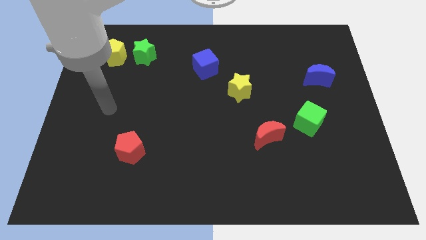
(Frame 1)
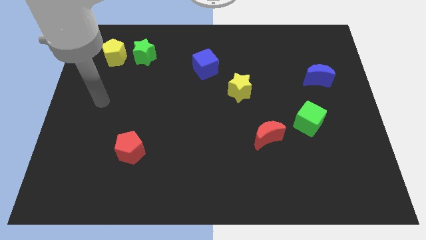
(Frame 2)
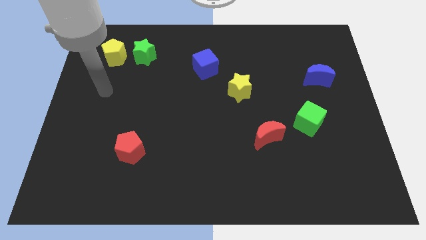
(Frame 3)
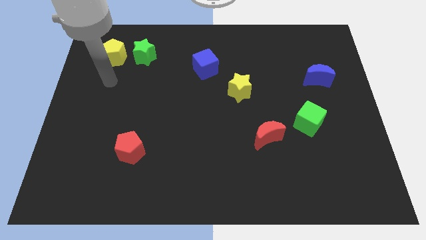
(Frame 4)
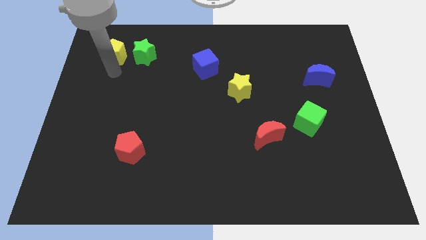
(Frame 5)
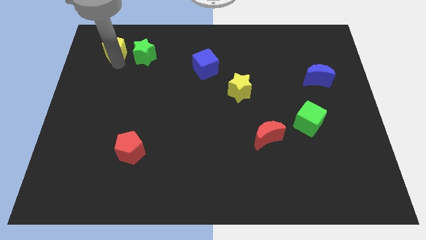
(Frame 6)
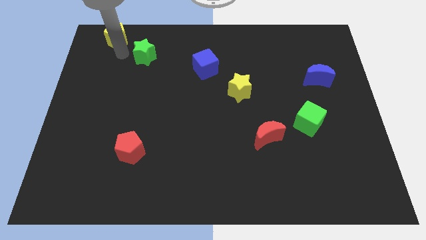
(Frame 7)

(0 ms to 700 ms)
pull the green star apart from the yellow pentagon

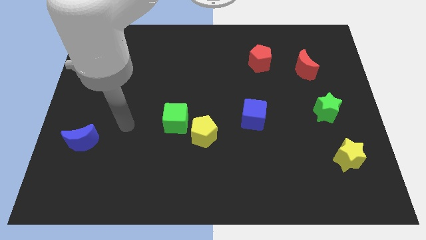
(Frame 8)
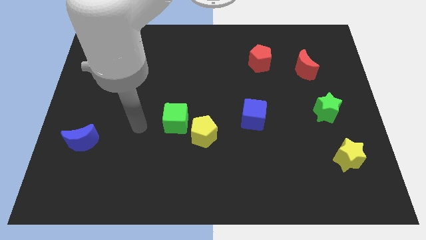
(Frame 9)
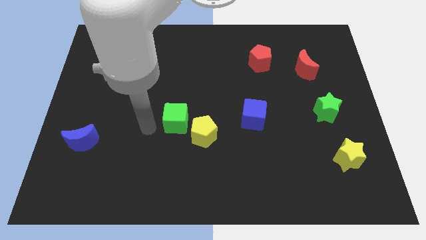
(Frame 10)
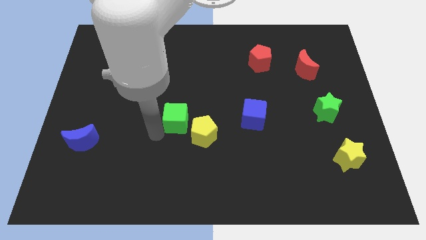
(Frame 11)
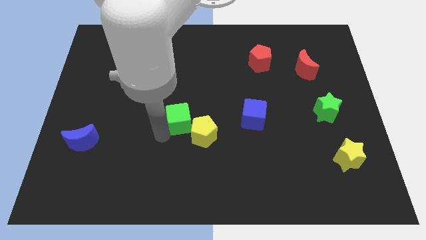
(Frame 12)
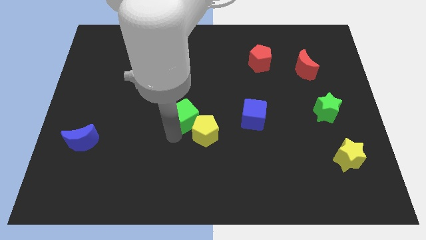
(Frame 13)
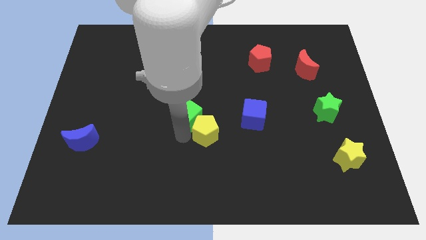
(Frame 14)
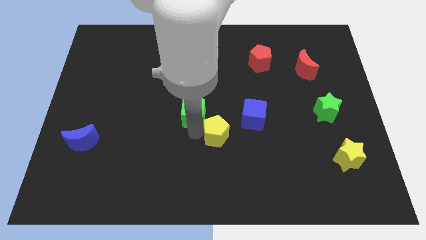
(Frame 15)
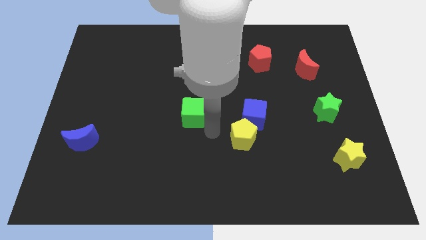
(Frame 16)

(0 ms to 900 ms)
move the green cube away from the yellow pentagon

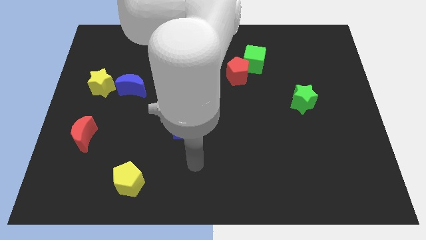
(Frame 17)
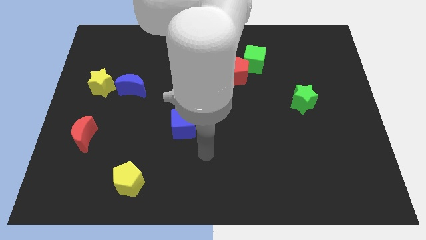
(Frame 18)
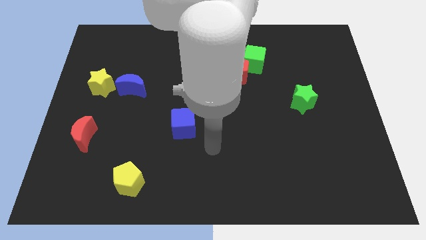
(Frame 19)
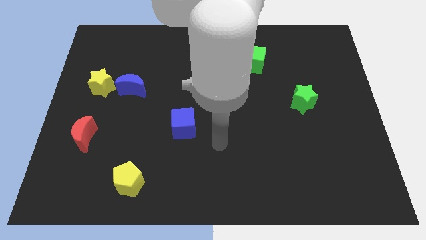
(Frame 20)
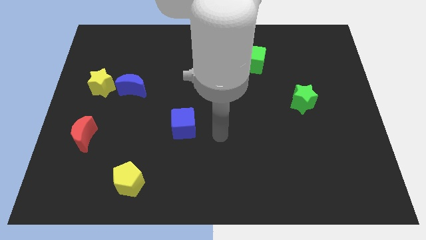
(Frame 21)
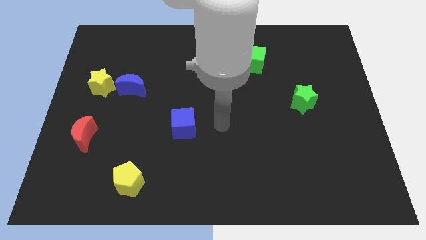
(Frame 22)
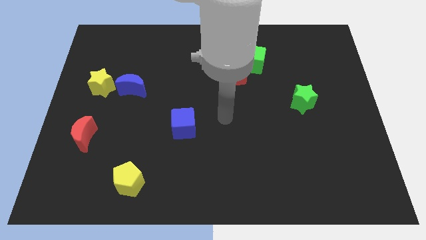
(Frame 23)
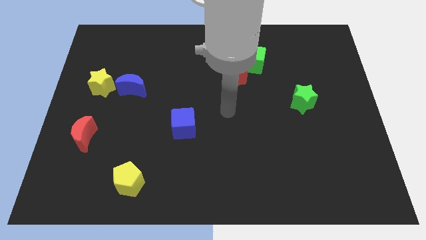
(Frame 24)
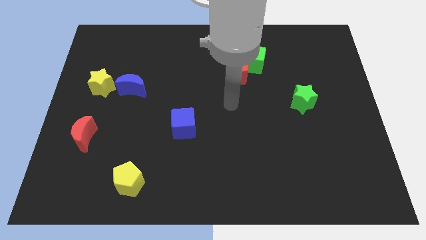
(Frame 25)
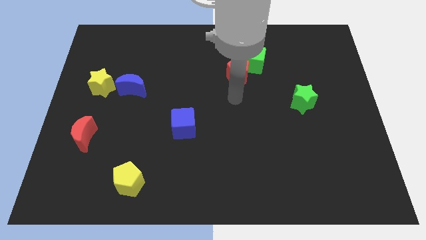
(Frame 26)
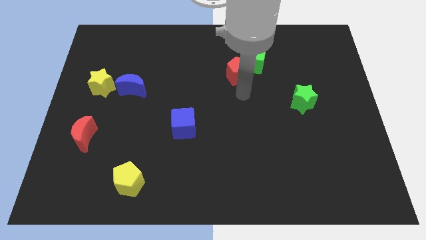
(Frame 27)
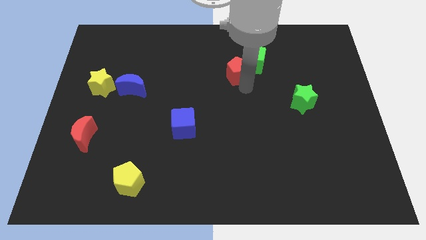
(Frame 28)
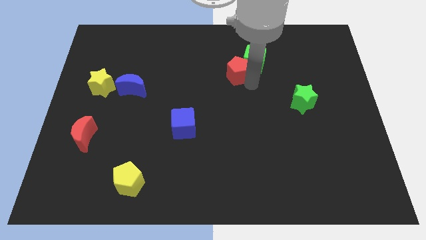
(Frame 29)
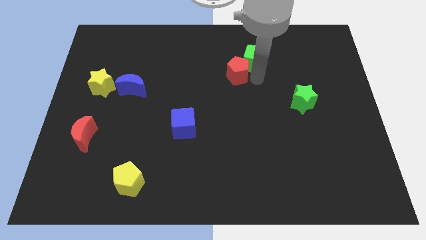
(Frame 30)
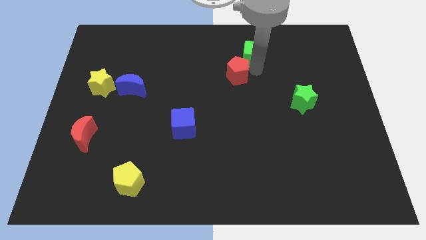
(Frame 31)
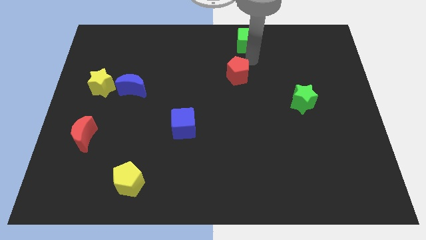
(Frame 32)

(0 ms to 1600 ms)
separate the red pentagon from the green cube

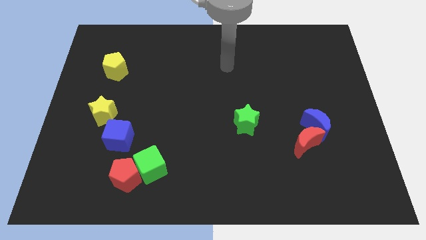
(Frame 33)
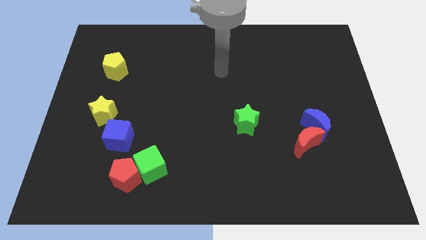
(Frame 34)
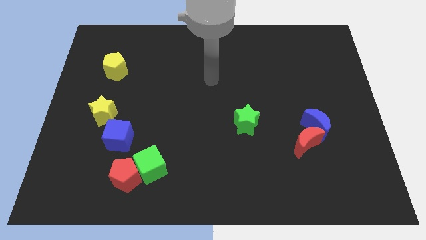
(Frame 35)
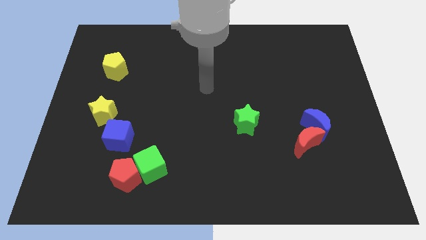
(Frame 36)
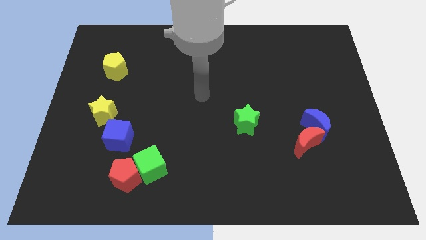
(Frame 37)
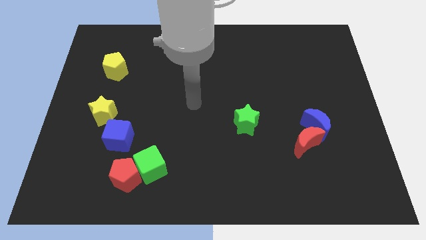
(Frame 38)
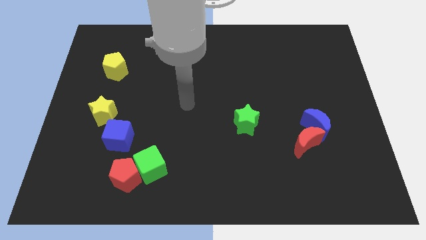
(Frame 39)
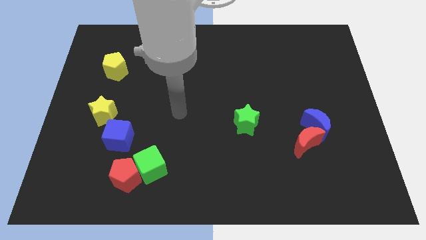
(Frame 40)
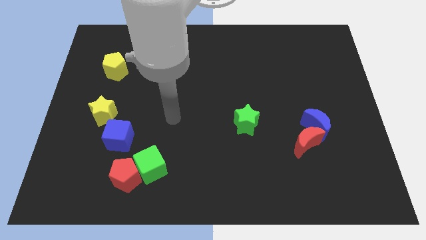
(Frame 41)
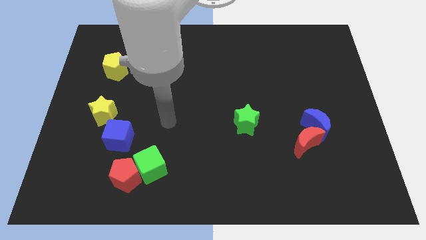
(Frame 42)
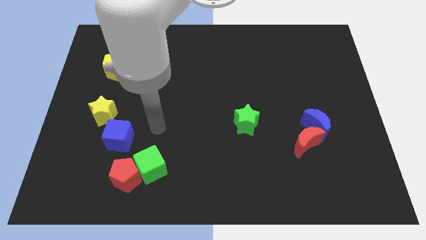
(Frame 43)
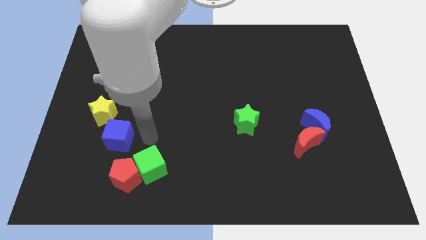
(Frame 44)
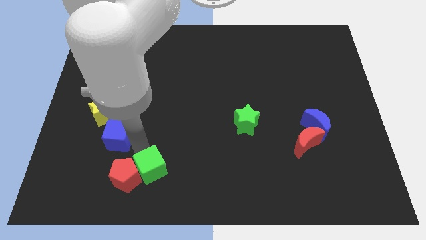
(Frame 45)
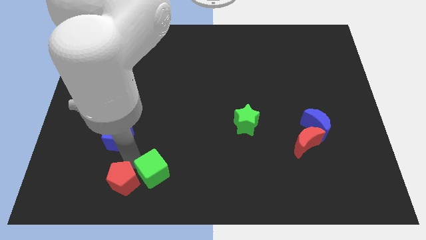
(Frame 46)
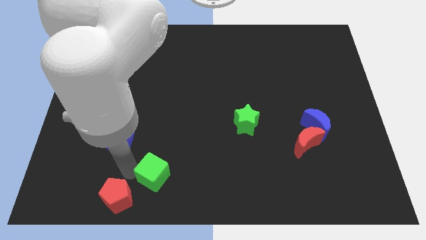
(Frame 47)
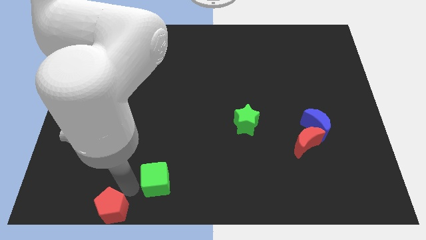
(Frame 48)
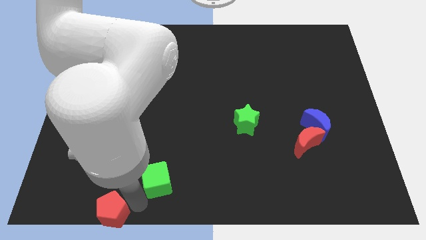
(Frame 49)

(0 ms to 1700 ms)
pull the green cube apart from the red pentagon

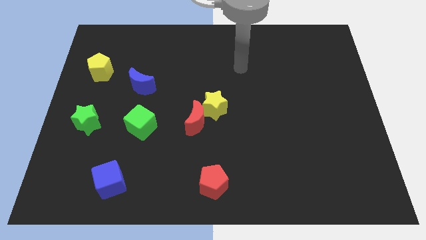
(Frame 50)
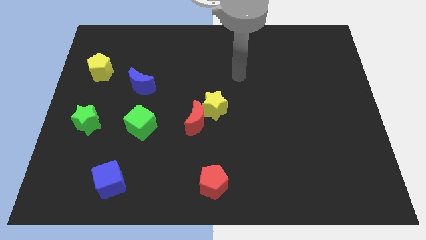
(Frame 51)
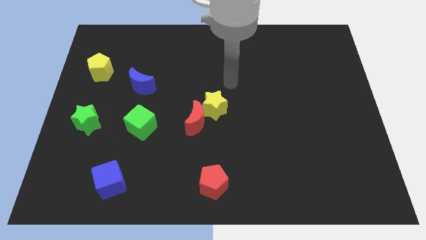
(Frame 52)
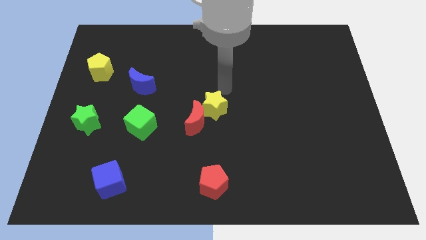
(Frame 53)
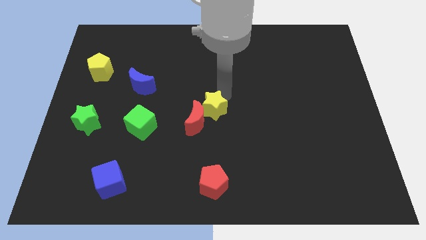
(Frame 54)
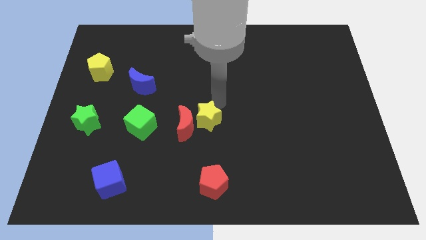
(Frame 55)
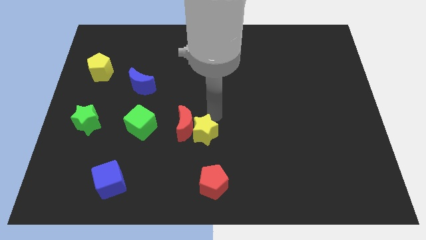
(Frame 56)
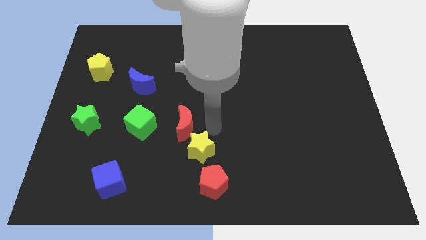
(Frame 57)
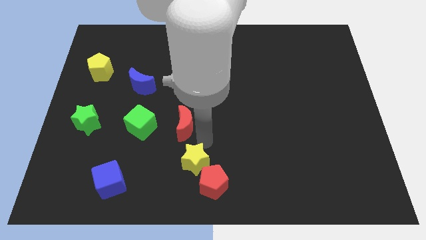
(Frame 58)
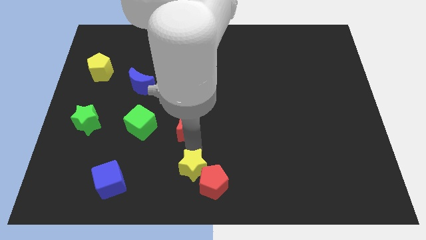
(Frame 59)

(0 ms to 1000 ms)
separate the red moon from the yellow star

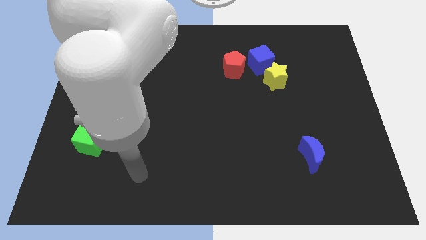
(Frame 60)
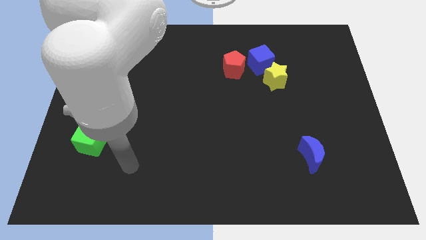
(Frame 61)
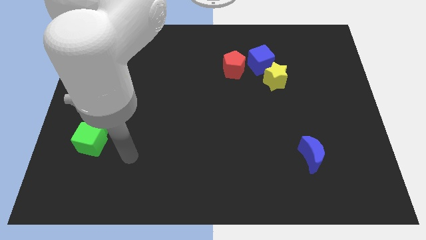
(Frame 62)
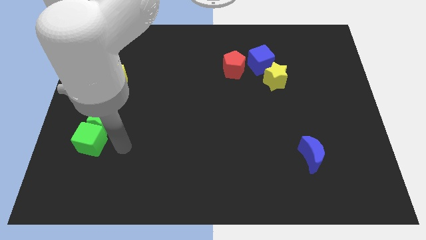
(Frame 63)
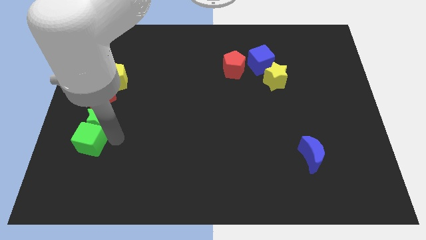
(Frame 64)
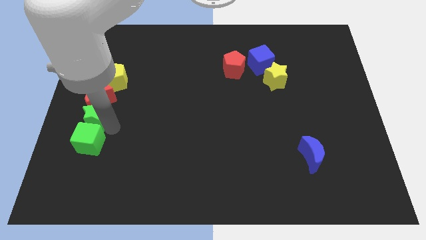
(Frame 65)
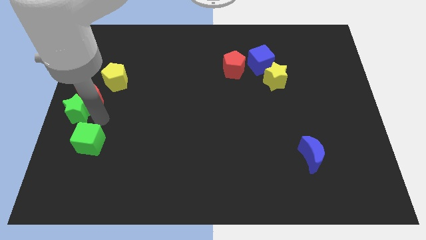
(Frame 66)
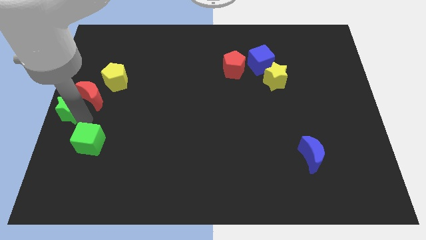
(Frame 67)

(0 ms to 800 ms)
separate the green cube from the green star

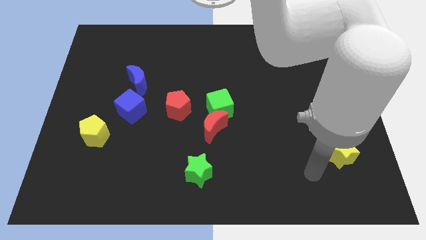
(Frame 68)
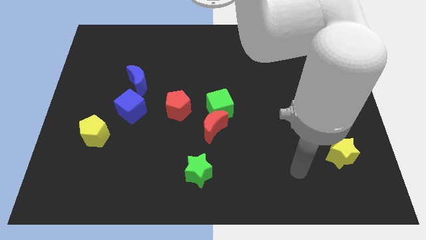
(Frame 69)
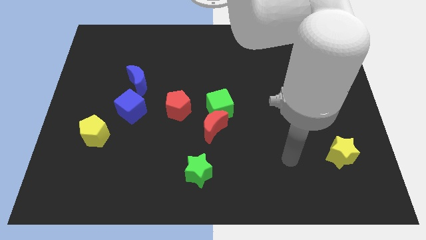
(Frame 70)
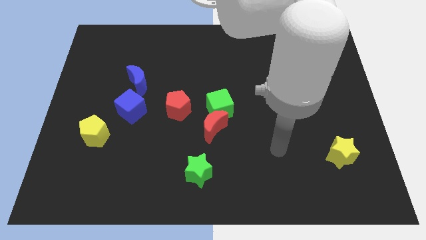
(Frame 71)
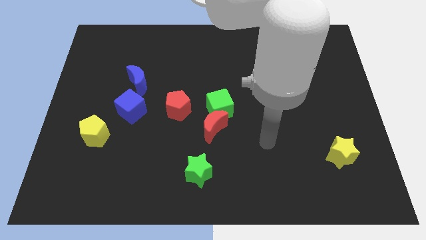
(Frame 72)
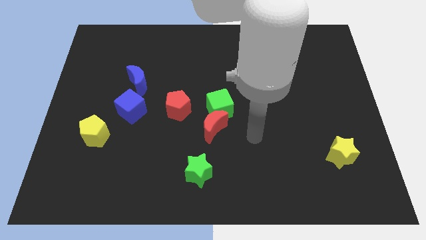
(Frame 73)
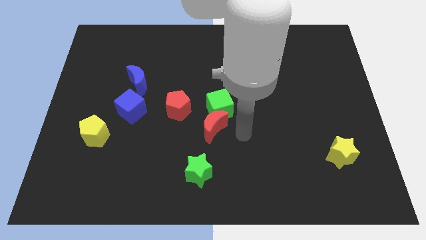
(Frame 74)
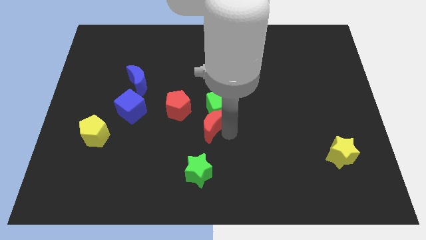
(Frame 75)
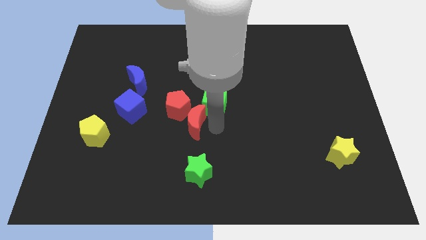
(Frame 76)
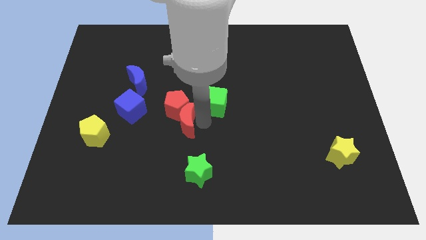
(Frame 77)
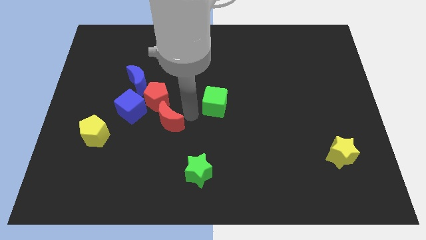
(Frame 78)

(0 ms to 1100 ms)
move the green cube away from the red moon and red pentagon

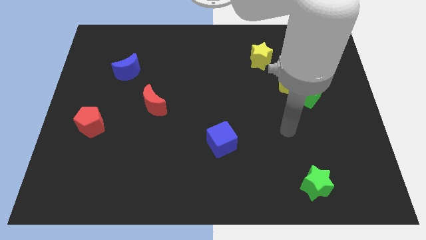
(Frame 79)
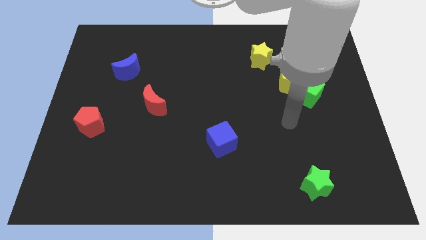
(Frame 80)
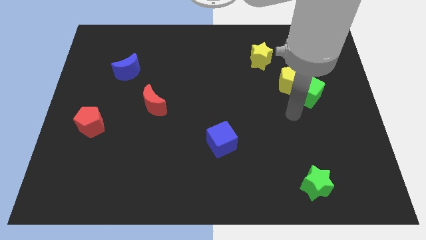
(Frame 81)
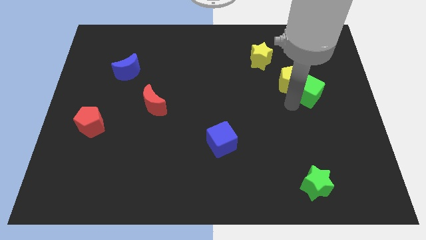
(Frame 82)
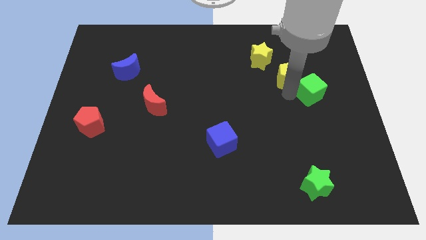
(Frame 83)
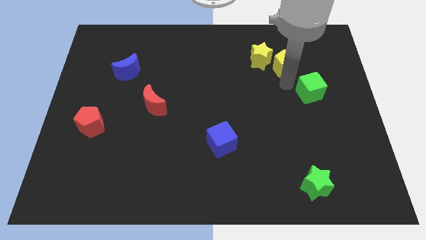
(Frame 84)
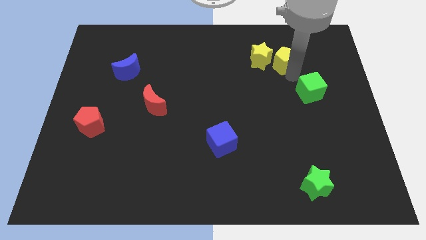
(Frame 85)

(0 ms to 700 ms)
pull the green cube apart from the yellow pentagon

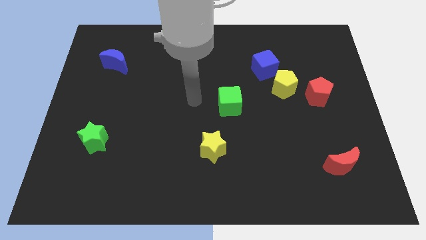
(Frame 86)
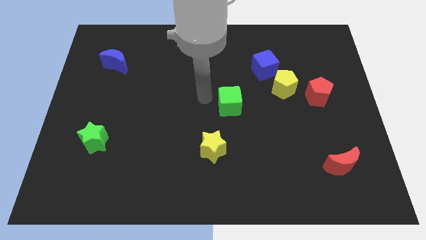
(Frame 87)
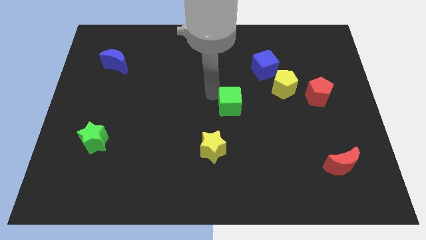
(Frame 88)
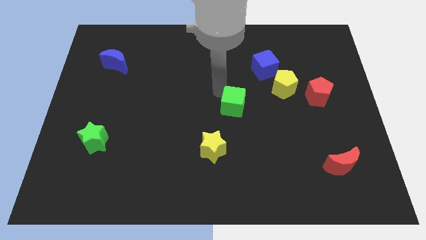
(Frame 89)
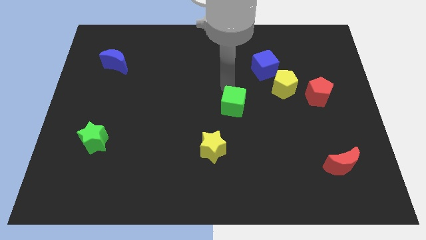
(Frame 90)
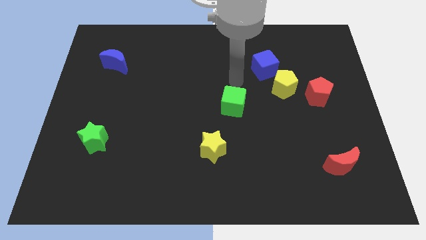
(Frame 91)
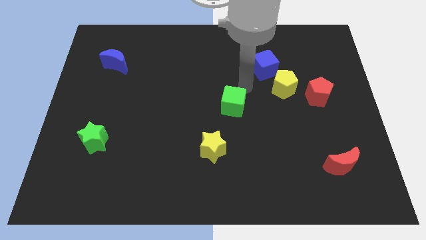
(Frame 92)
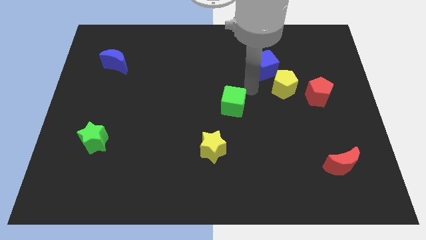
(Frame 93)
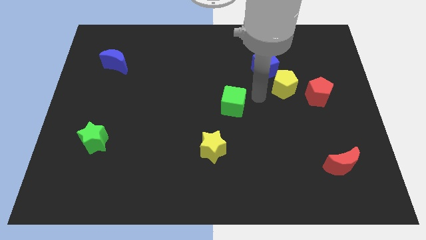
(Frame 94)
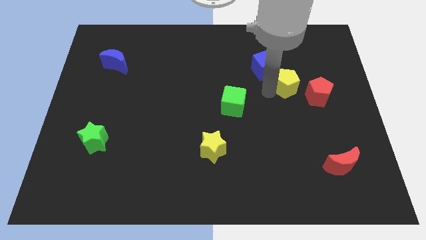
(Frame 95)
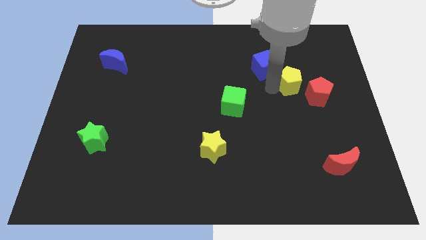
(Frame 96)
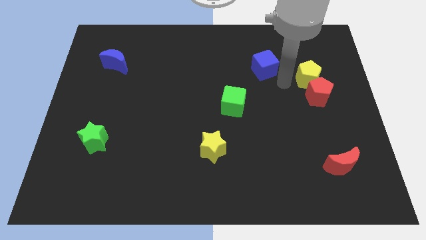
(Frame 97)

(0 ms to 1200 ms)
pull the blue cube apart from the yellow pentagon
